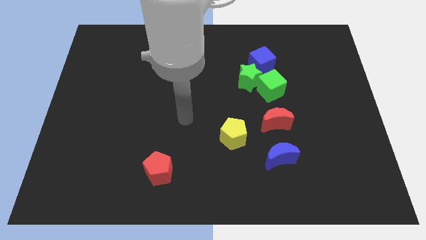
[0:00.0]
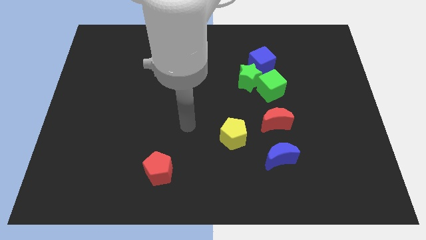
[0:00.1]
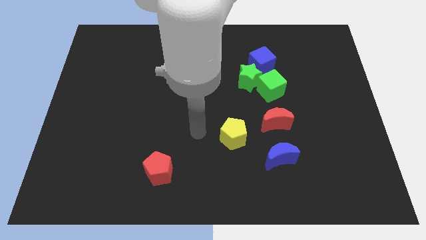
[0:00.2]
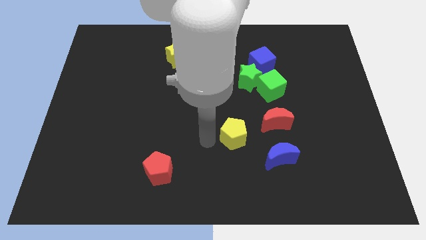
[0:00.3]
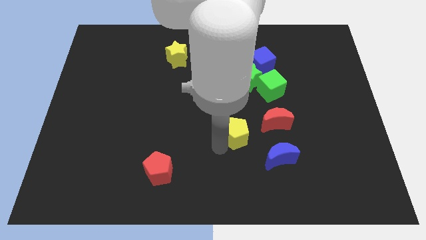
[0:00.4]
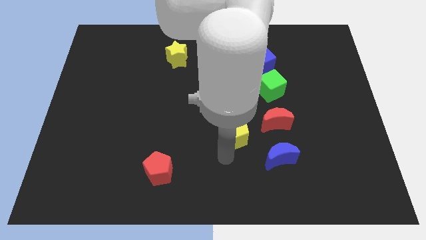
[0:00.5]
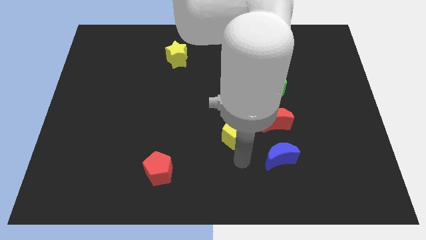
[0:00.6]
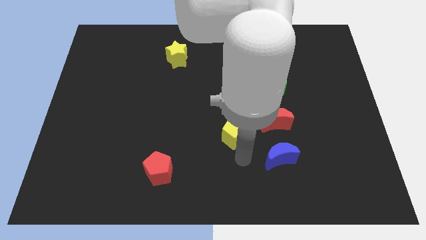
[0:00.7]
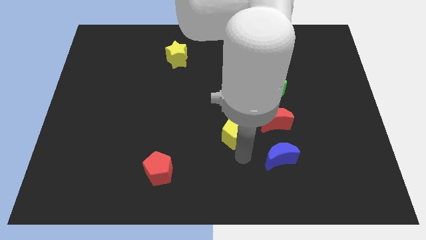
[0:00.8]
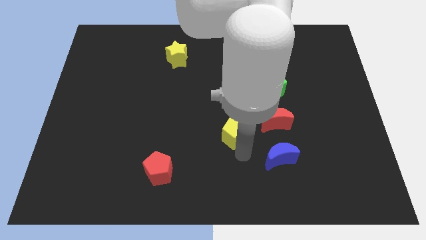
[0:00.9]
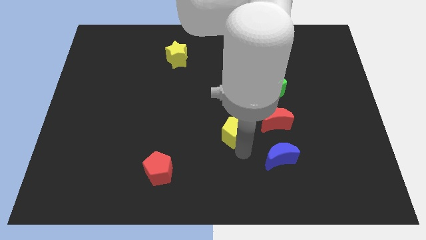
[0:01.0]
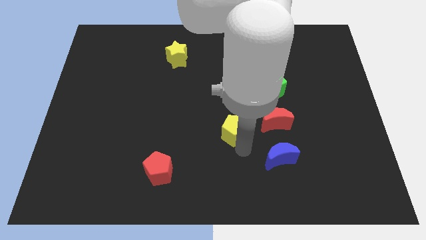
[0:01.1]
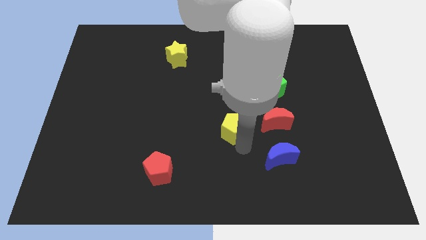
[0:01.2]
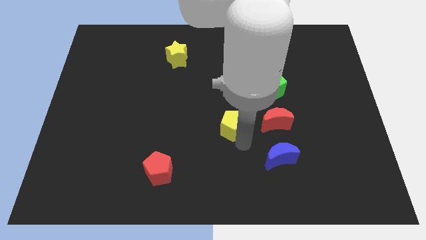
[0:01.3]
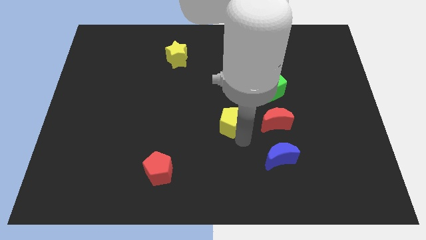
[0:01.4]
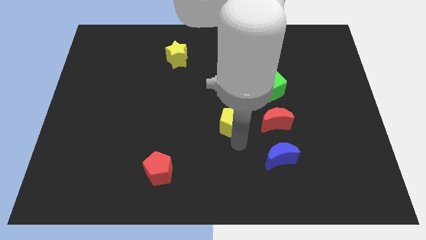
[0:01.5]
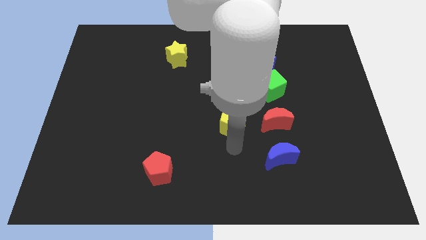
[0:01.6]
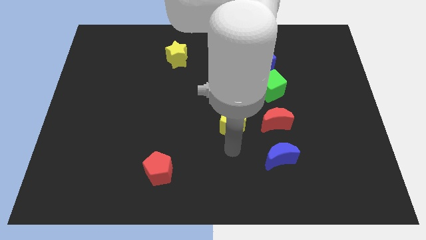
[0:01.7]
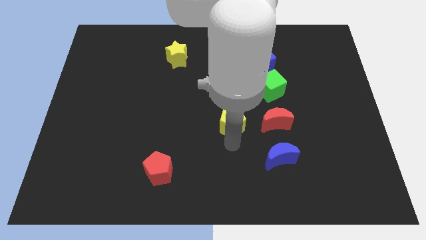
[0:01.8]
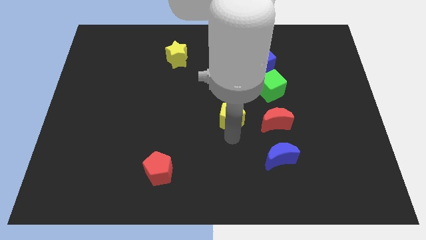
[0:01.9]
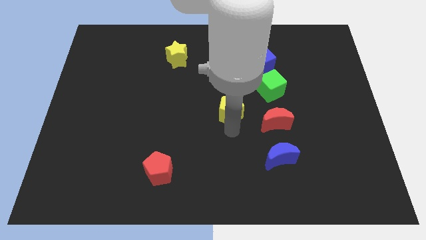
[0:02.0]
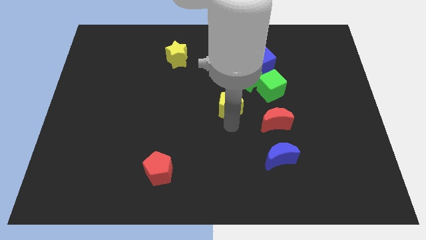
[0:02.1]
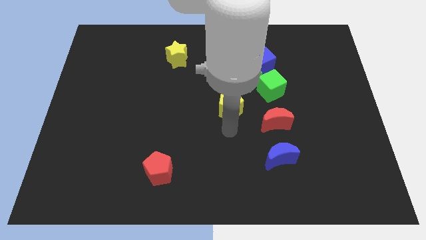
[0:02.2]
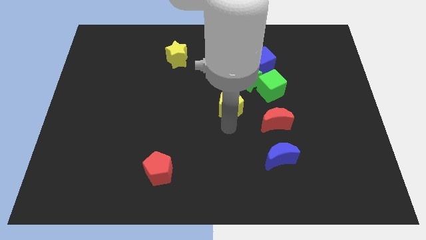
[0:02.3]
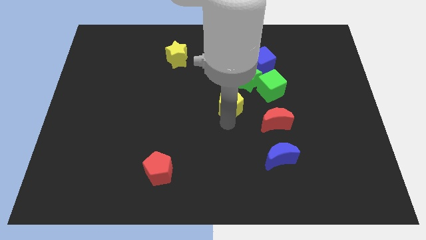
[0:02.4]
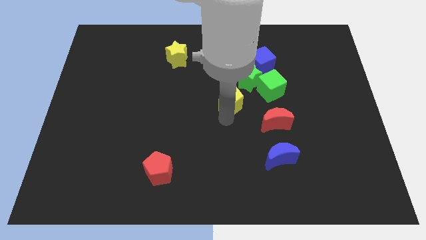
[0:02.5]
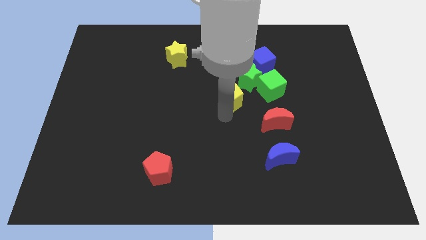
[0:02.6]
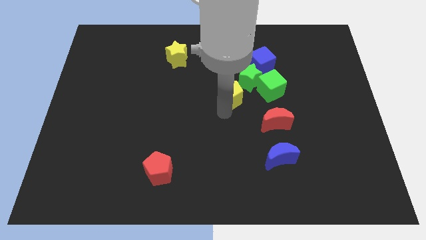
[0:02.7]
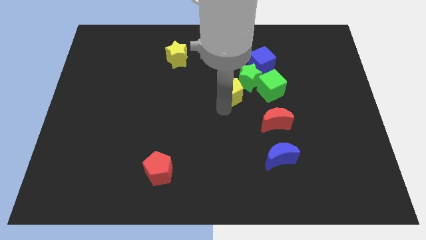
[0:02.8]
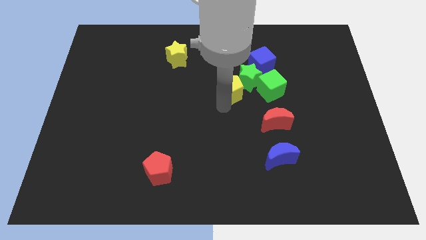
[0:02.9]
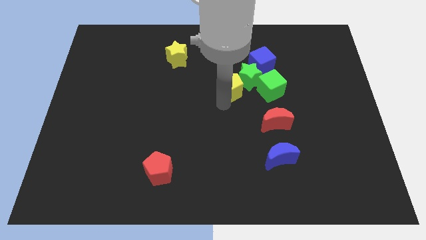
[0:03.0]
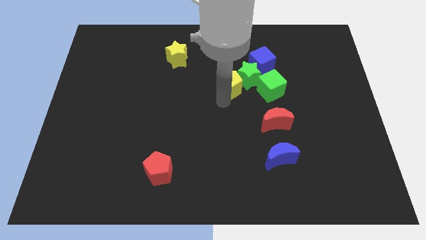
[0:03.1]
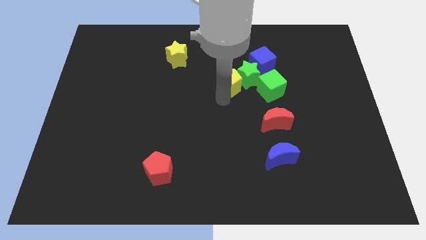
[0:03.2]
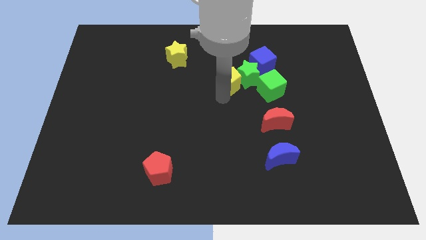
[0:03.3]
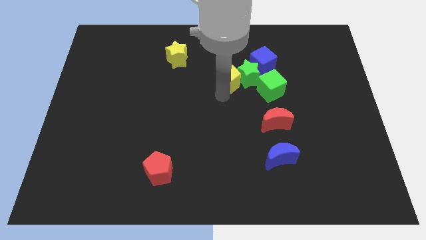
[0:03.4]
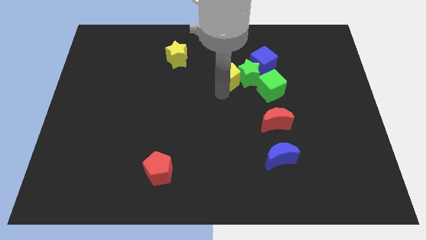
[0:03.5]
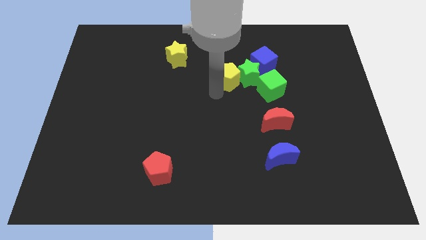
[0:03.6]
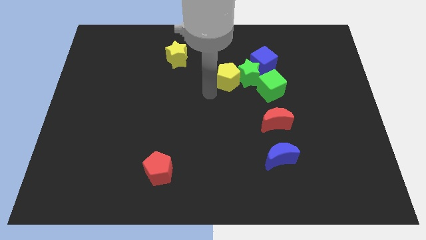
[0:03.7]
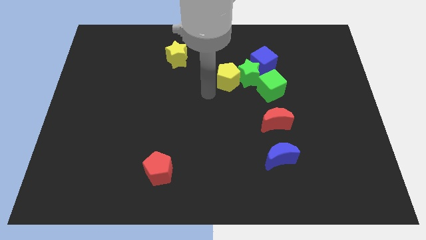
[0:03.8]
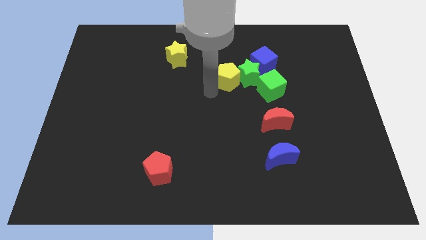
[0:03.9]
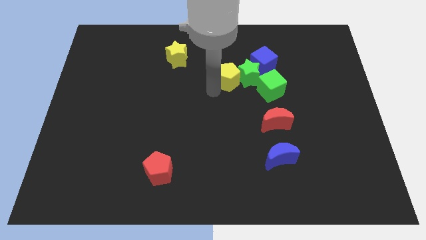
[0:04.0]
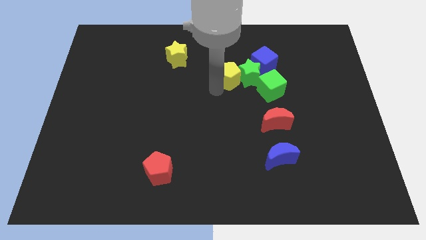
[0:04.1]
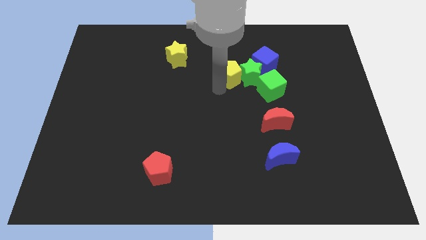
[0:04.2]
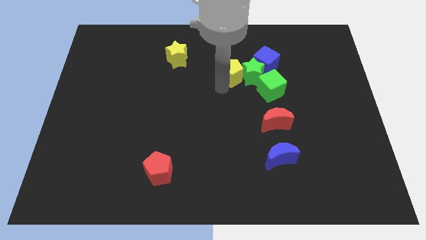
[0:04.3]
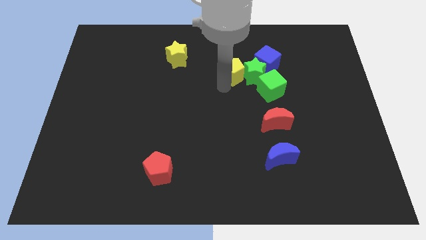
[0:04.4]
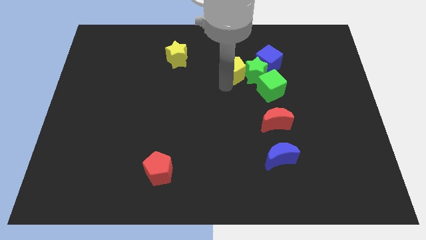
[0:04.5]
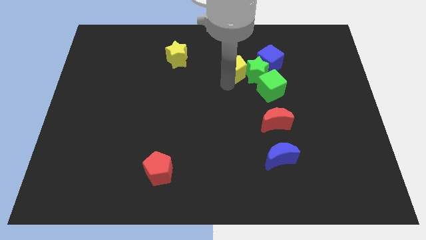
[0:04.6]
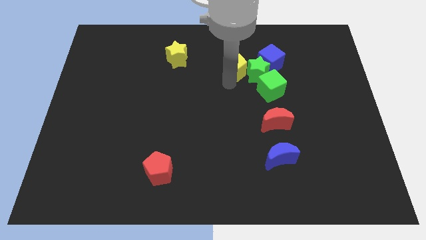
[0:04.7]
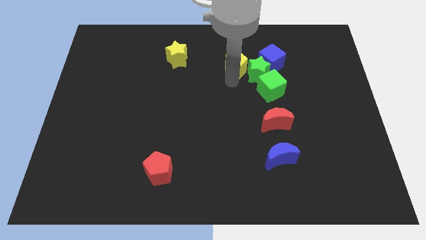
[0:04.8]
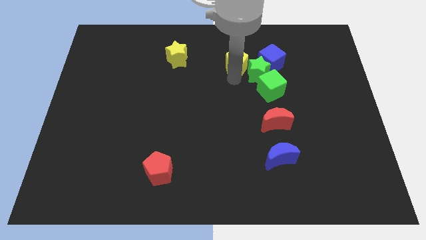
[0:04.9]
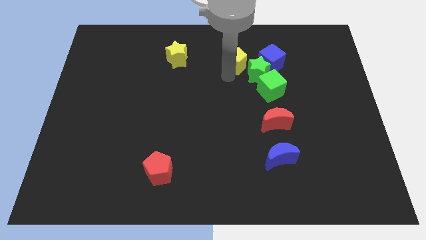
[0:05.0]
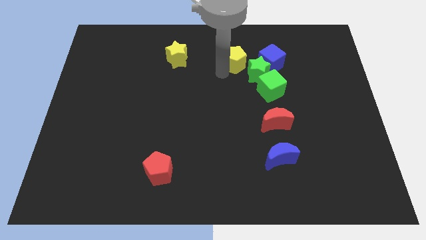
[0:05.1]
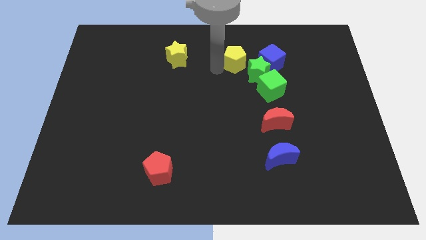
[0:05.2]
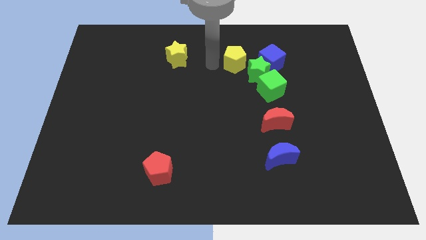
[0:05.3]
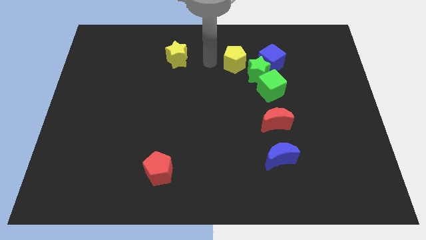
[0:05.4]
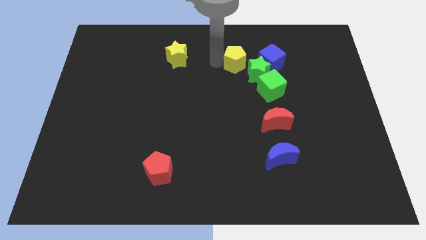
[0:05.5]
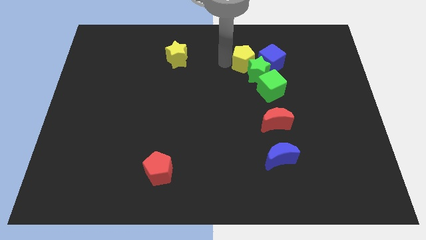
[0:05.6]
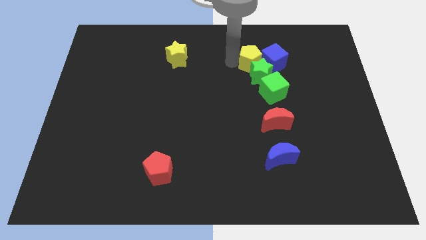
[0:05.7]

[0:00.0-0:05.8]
put the yellow pentagon close to the blue cube
